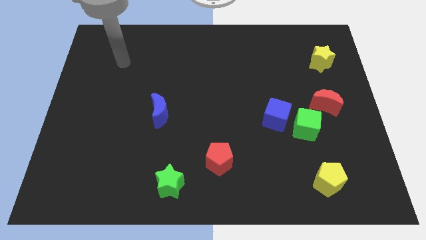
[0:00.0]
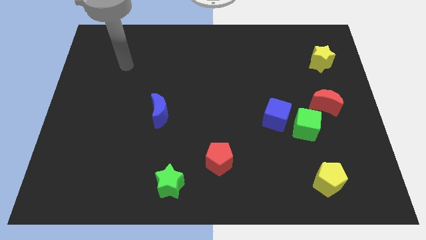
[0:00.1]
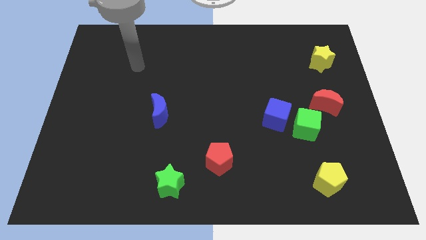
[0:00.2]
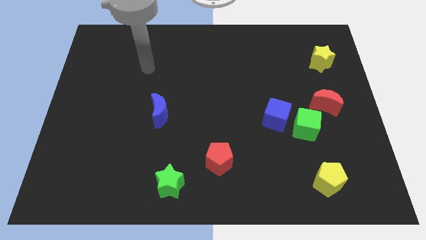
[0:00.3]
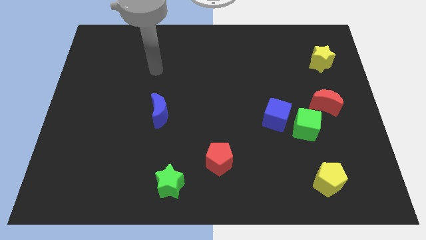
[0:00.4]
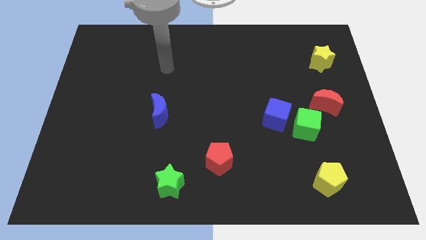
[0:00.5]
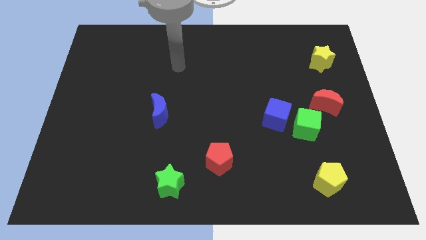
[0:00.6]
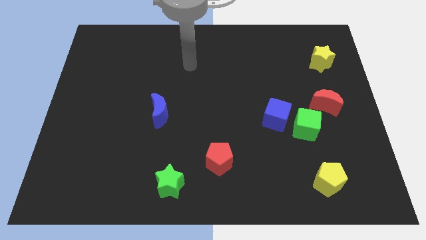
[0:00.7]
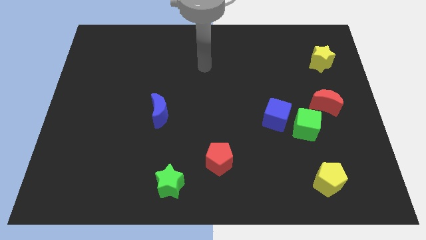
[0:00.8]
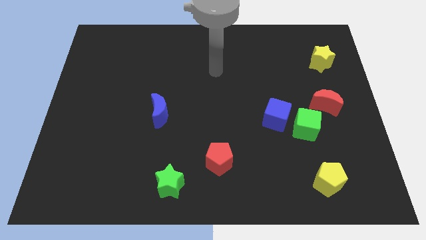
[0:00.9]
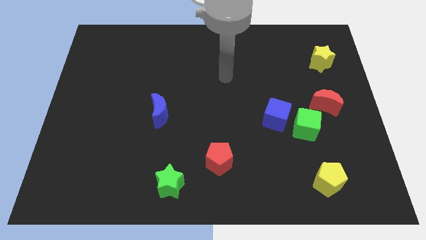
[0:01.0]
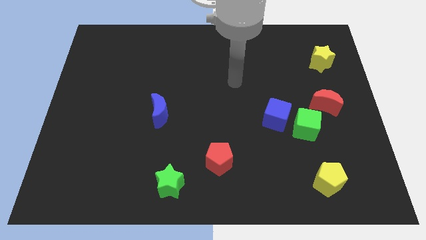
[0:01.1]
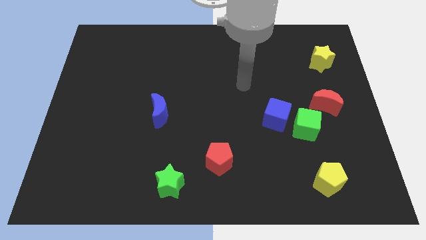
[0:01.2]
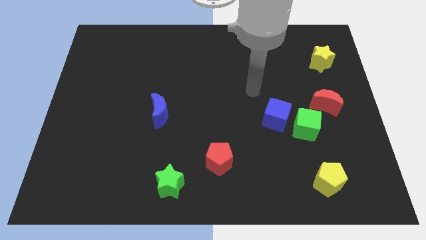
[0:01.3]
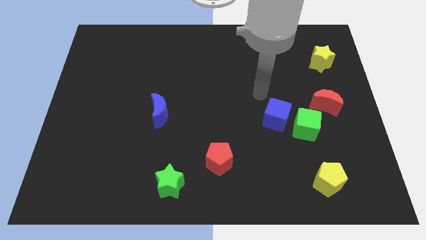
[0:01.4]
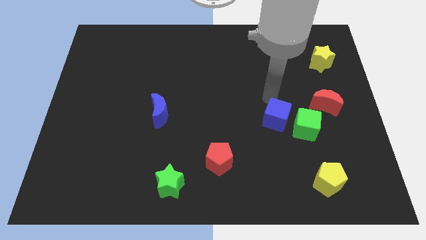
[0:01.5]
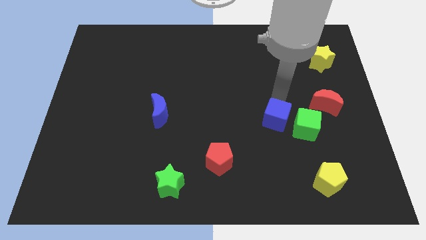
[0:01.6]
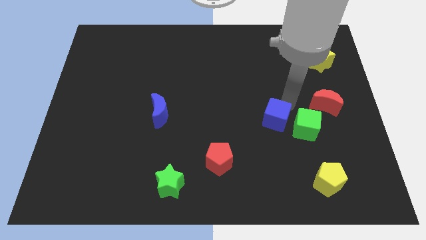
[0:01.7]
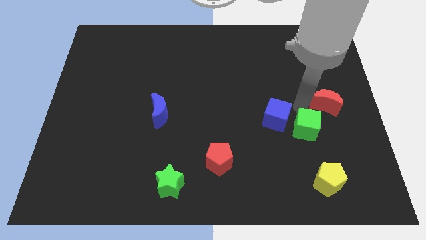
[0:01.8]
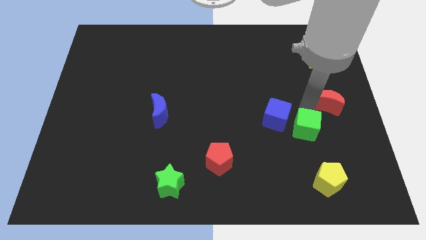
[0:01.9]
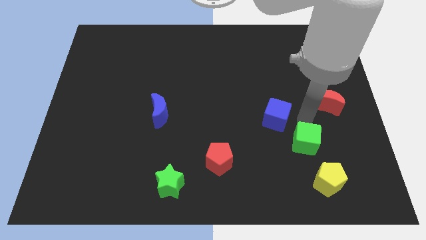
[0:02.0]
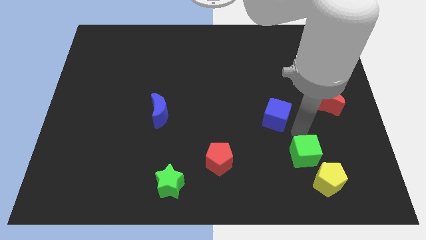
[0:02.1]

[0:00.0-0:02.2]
pull the blue cube apart from the green cube

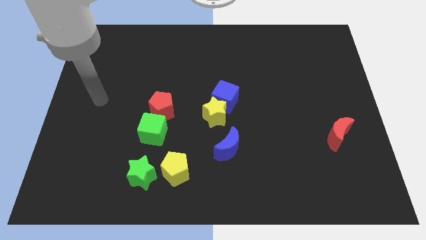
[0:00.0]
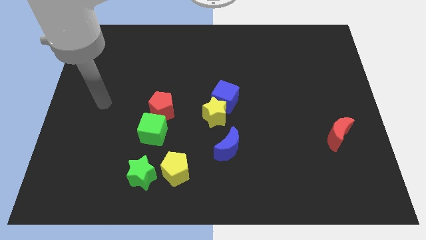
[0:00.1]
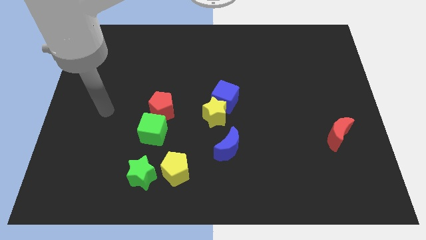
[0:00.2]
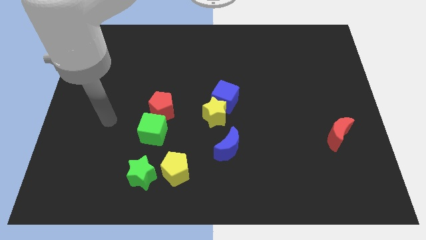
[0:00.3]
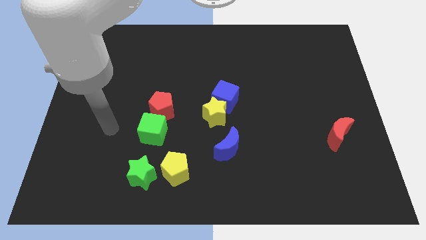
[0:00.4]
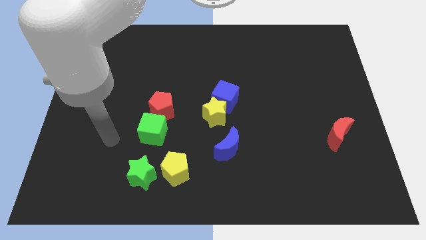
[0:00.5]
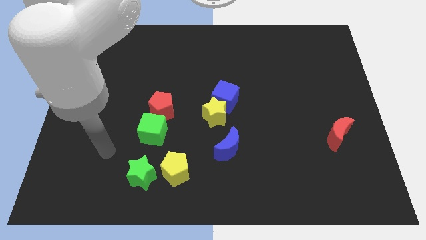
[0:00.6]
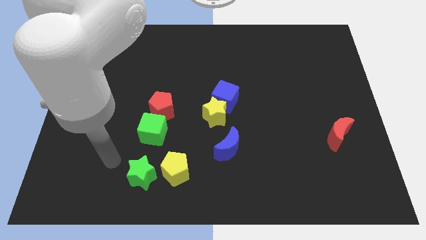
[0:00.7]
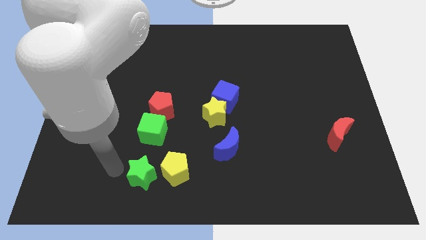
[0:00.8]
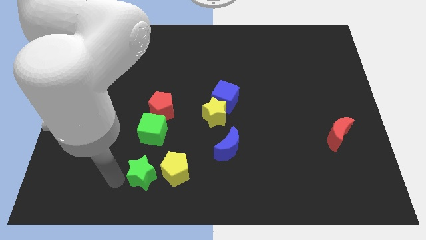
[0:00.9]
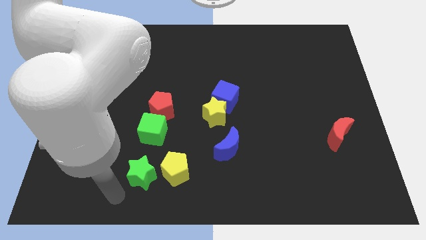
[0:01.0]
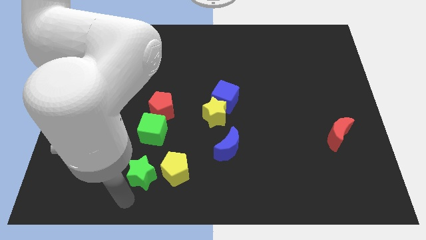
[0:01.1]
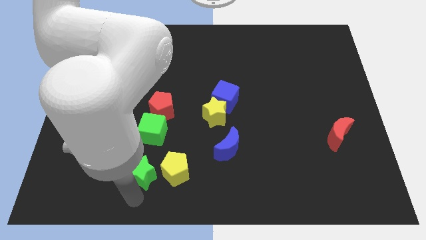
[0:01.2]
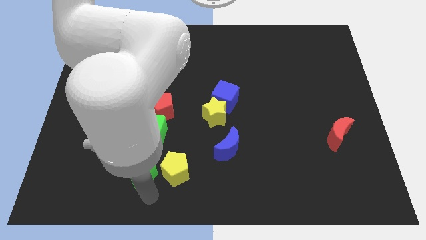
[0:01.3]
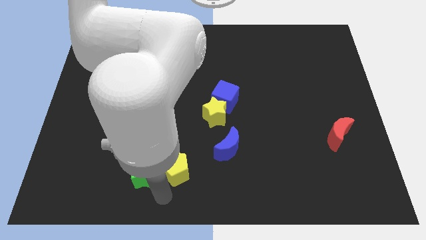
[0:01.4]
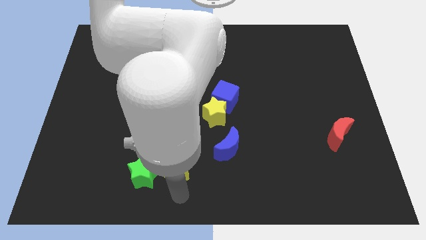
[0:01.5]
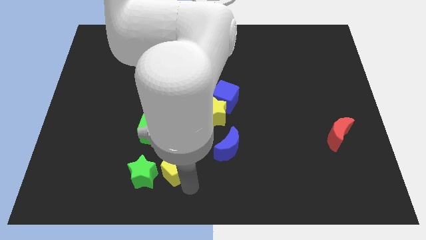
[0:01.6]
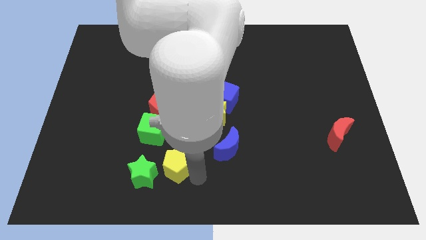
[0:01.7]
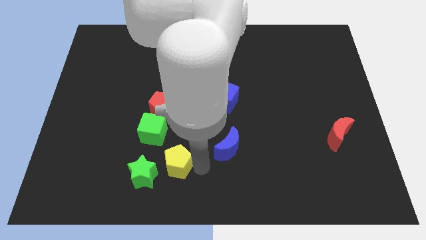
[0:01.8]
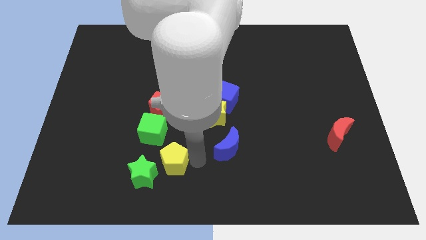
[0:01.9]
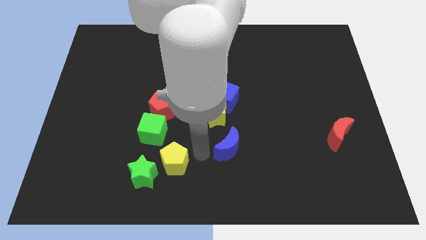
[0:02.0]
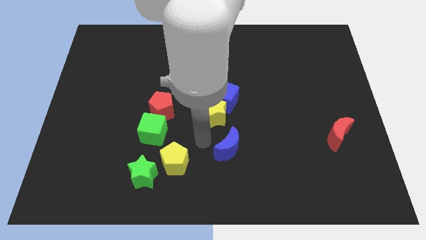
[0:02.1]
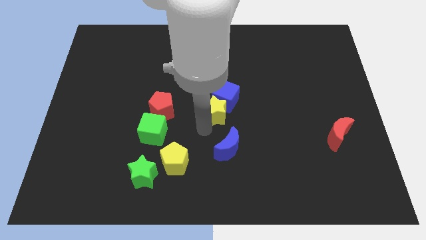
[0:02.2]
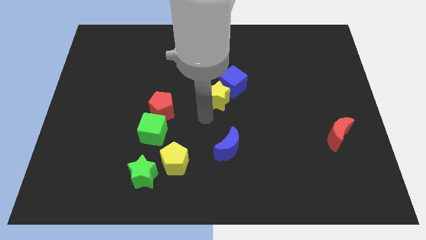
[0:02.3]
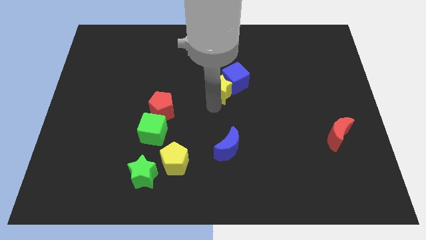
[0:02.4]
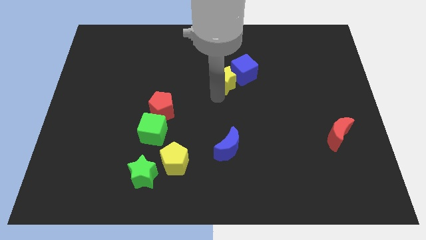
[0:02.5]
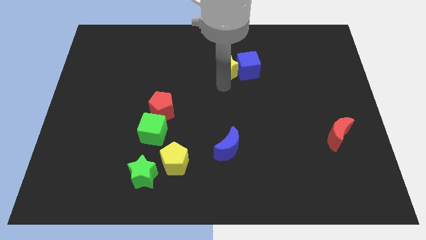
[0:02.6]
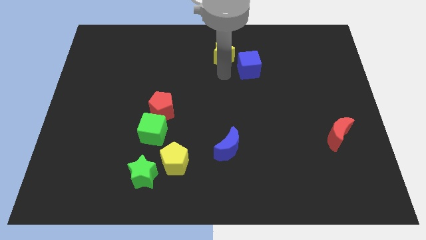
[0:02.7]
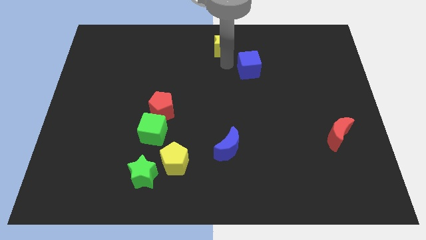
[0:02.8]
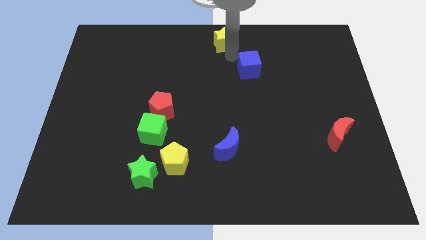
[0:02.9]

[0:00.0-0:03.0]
move the blue cube away from the yellow star

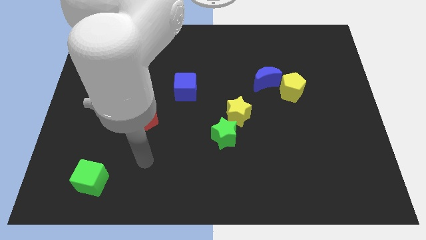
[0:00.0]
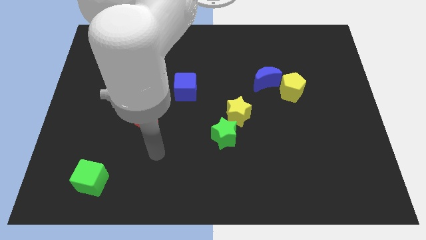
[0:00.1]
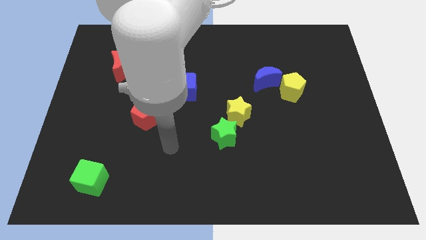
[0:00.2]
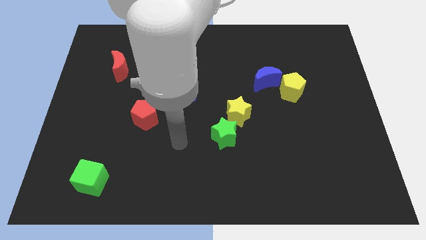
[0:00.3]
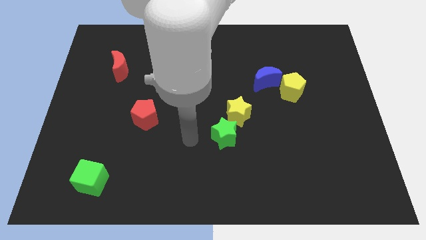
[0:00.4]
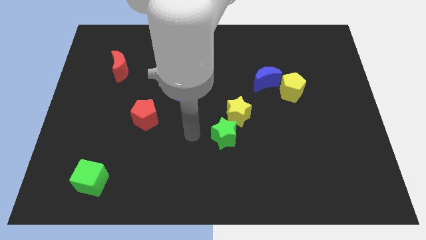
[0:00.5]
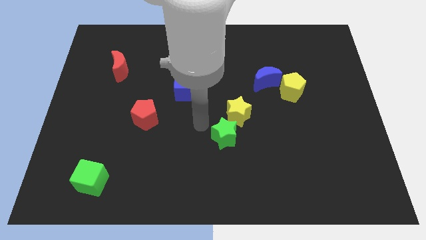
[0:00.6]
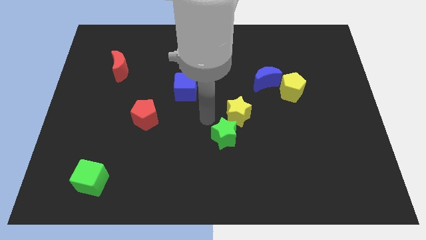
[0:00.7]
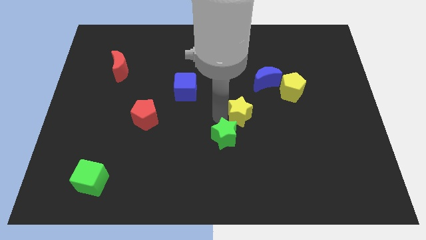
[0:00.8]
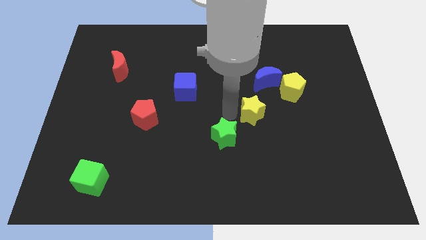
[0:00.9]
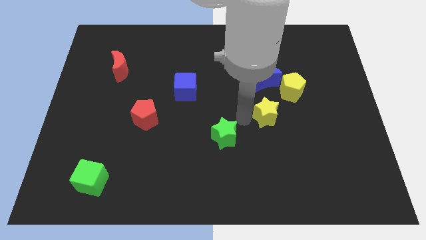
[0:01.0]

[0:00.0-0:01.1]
move the green star away from the yellow star

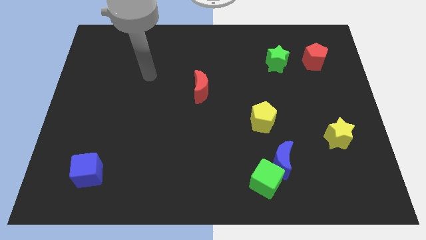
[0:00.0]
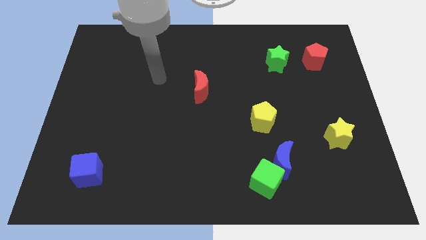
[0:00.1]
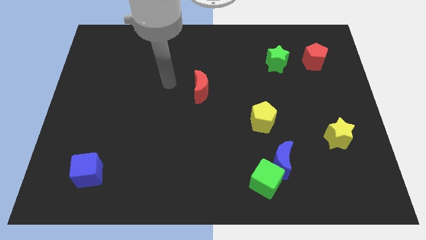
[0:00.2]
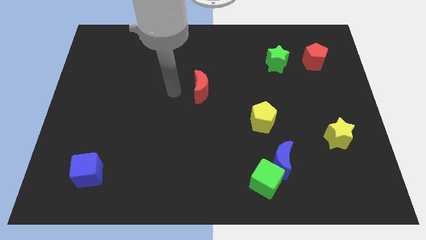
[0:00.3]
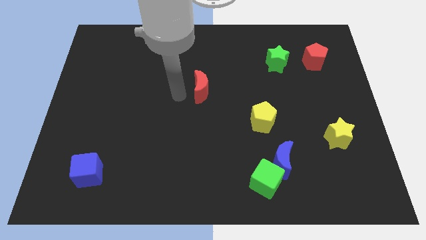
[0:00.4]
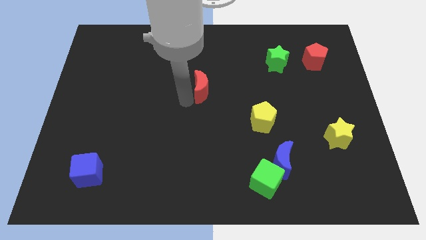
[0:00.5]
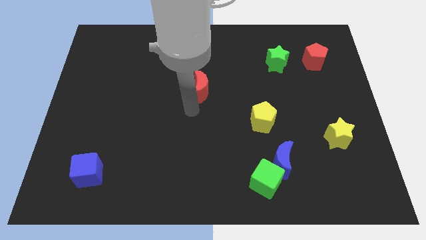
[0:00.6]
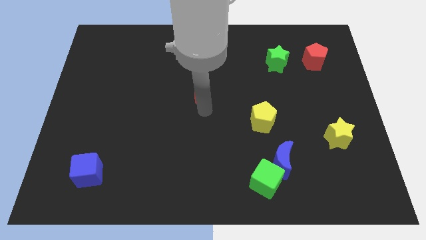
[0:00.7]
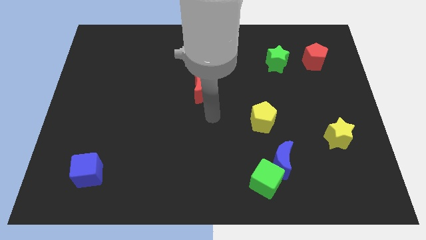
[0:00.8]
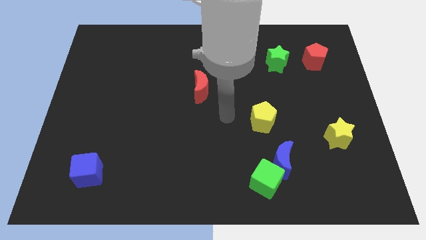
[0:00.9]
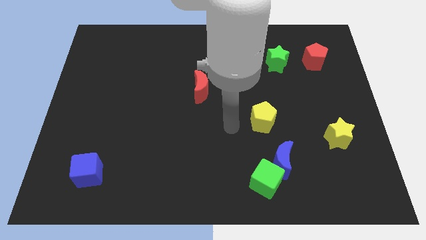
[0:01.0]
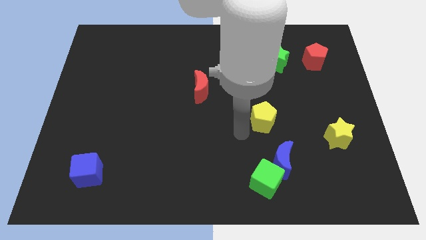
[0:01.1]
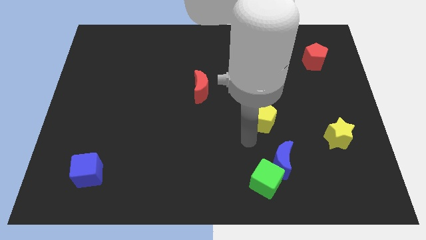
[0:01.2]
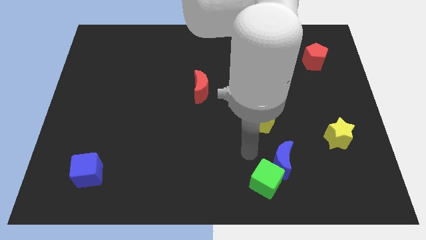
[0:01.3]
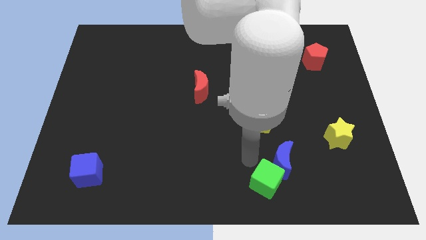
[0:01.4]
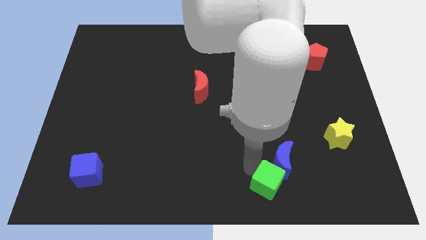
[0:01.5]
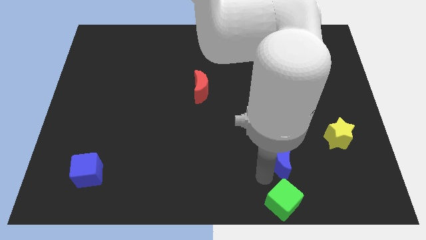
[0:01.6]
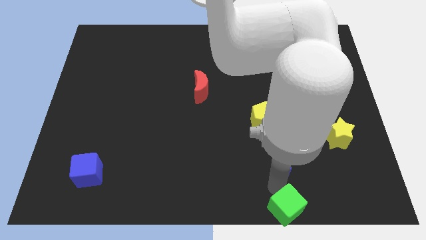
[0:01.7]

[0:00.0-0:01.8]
separate the blue moon from the green cube

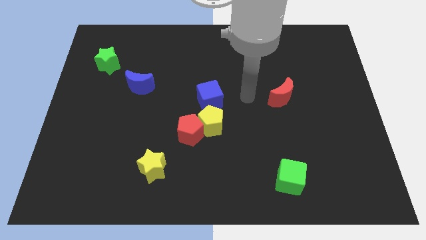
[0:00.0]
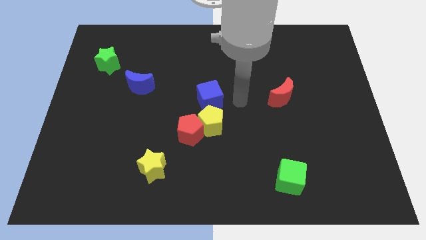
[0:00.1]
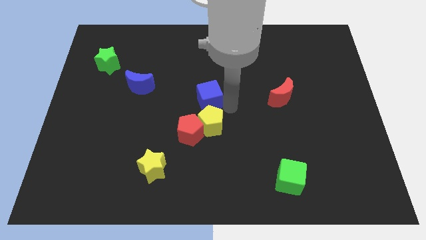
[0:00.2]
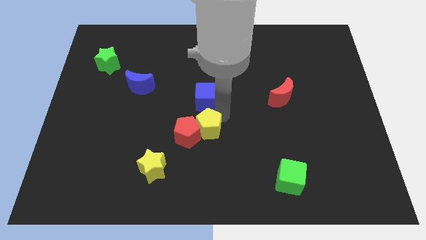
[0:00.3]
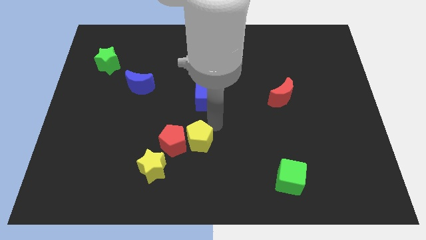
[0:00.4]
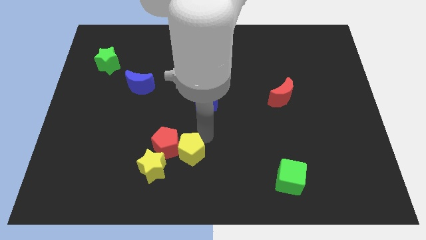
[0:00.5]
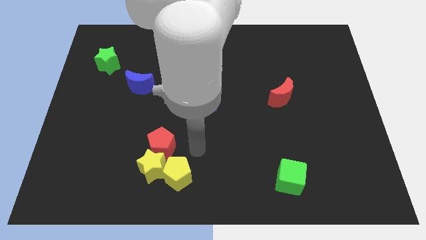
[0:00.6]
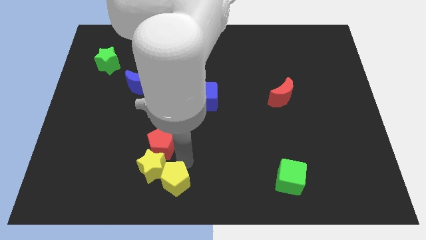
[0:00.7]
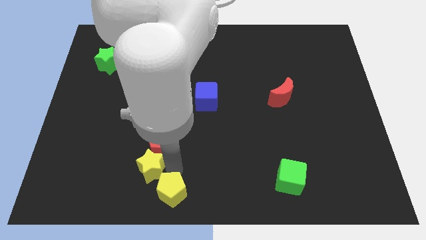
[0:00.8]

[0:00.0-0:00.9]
move the red pentagon away from the yellow pentagon

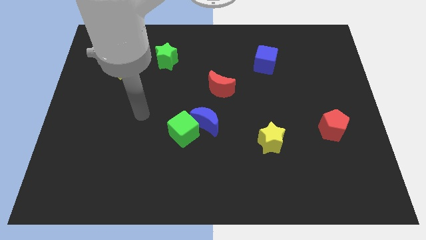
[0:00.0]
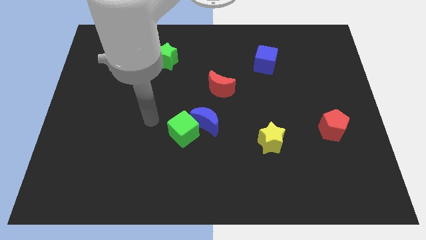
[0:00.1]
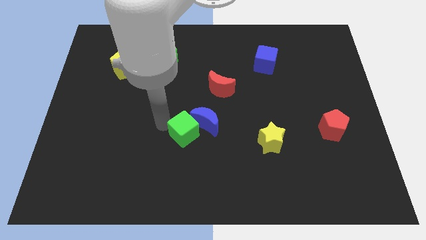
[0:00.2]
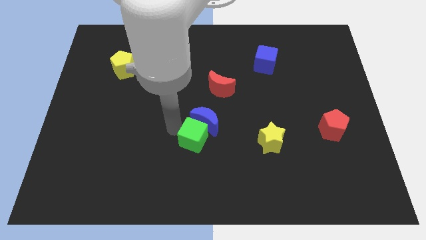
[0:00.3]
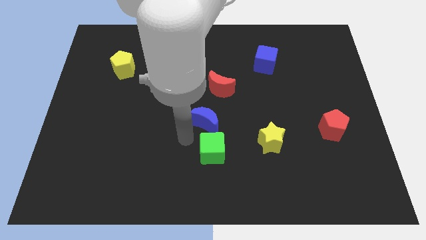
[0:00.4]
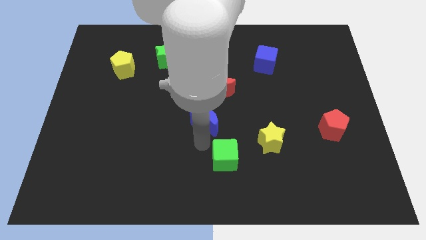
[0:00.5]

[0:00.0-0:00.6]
pull the blue moon apart from the green cube
